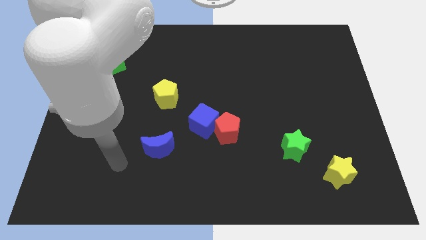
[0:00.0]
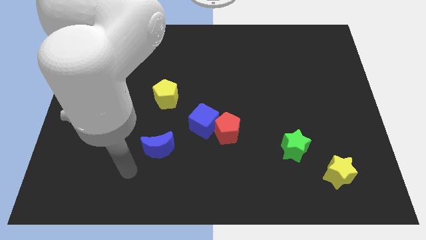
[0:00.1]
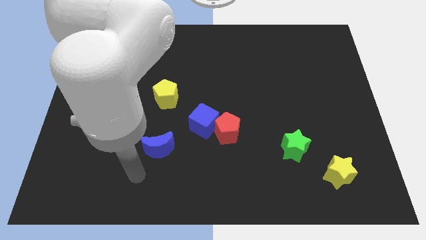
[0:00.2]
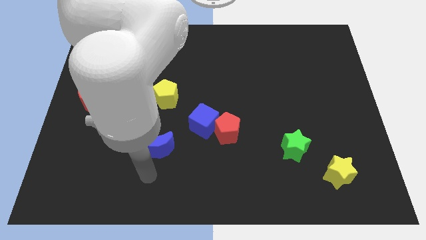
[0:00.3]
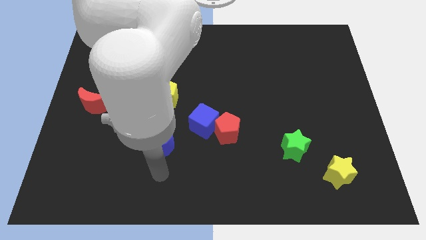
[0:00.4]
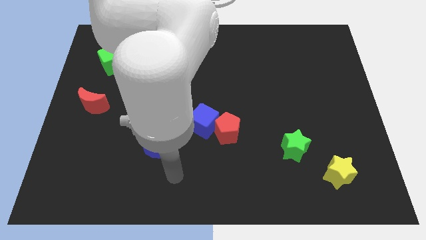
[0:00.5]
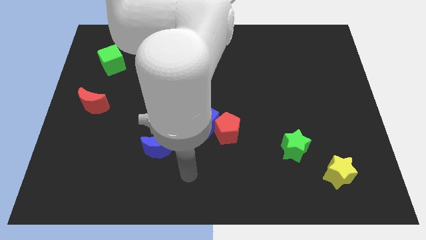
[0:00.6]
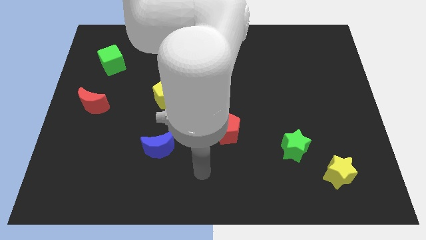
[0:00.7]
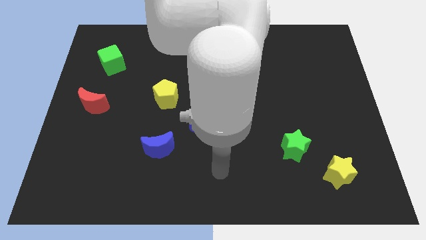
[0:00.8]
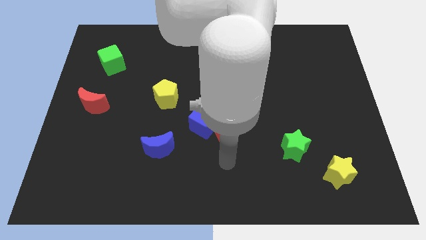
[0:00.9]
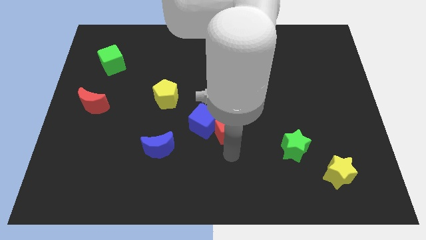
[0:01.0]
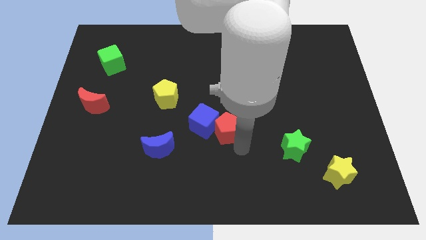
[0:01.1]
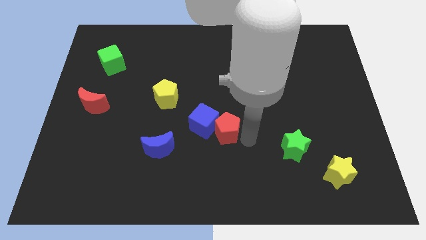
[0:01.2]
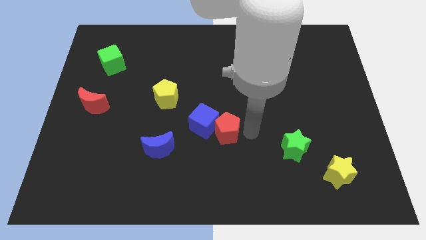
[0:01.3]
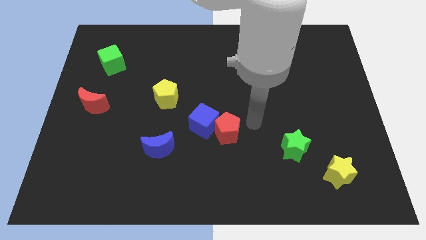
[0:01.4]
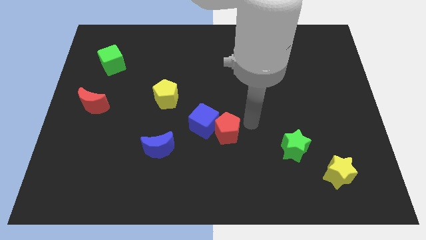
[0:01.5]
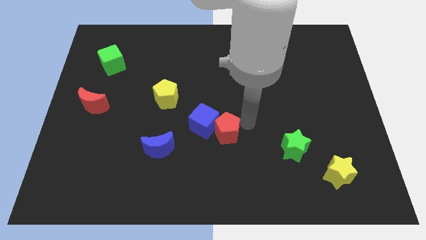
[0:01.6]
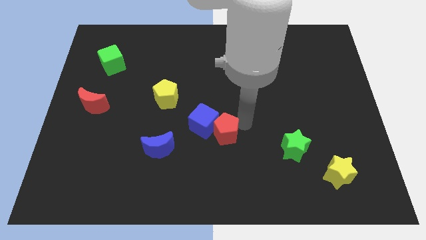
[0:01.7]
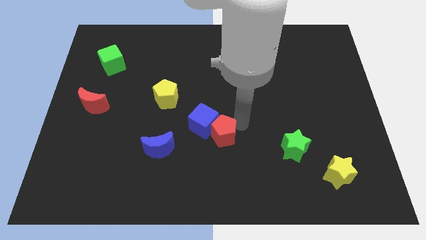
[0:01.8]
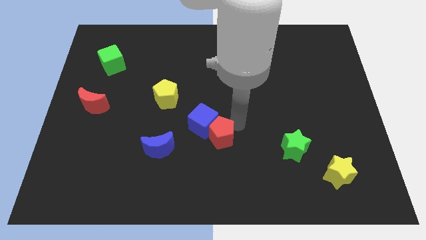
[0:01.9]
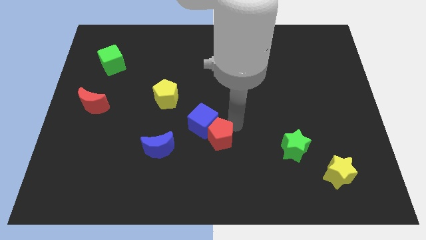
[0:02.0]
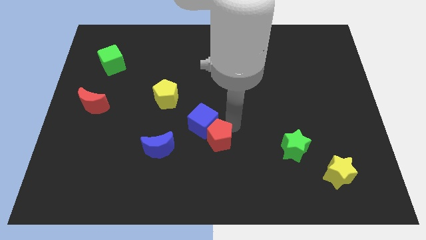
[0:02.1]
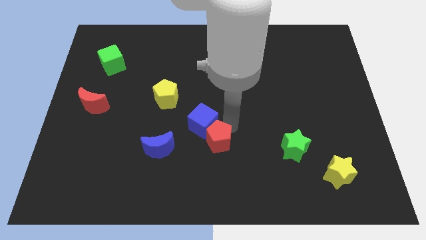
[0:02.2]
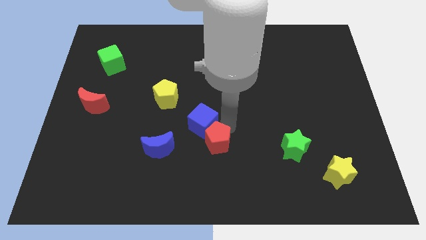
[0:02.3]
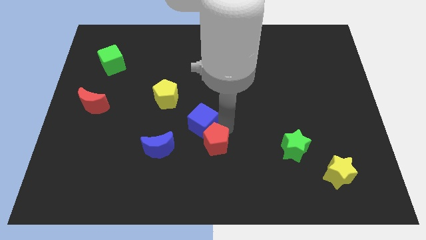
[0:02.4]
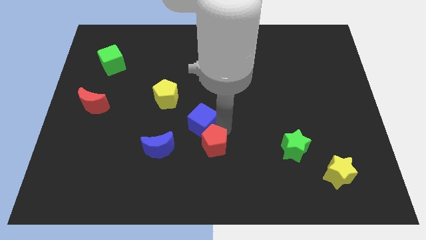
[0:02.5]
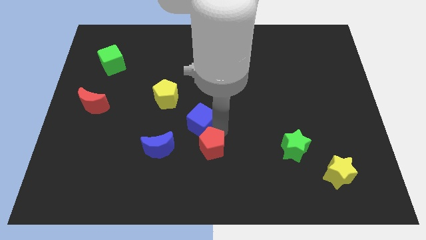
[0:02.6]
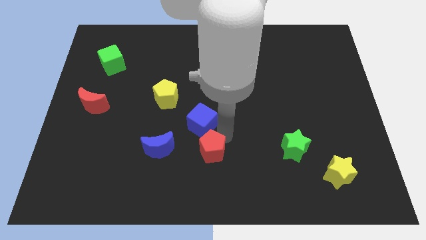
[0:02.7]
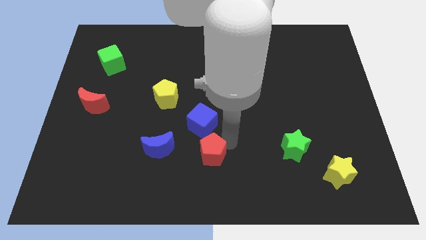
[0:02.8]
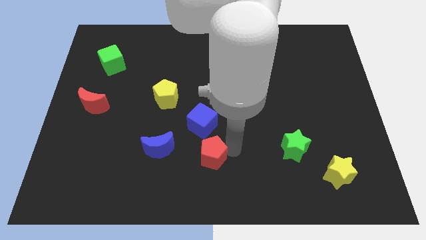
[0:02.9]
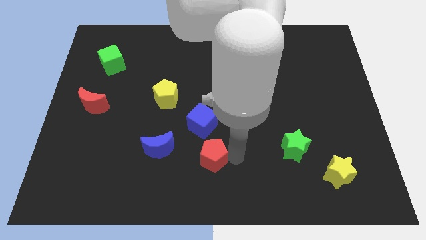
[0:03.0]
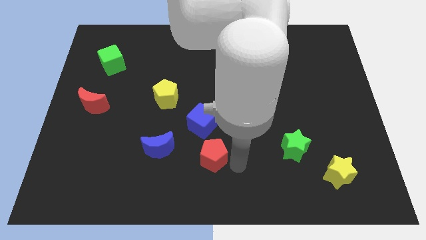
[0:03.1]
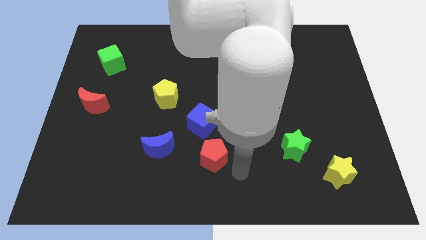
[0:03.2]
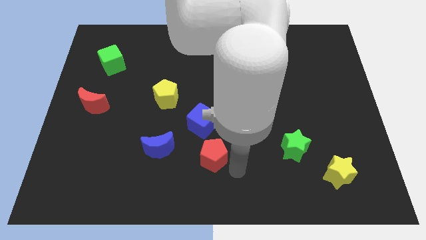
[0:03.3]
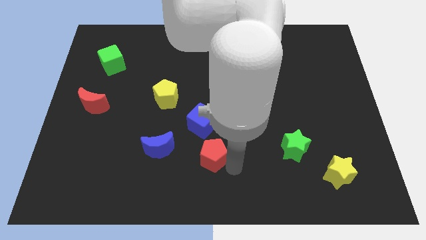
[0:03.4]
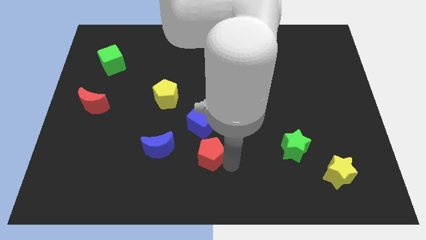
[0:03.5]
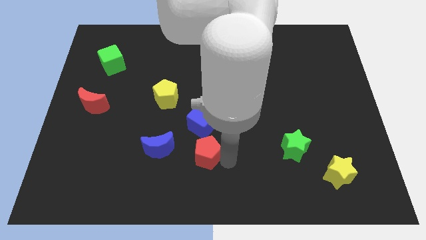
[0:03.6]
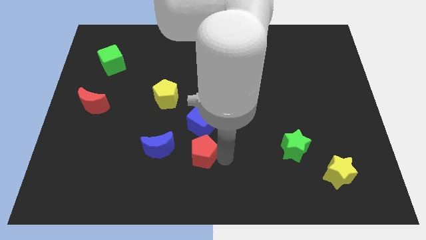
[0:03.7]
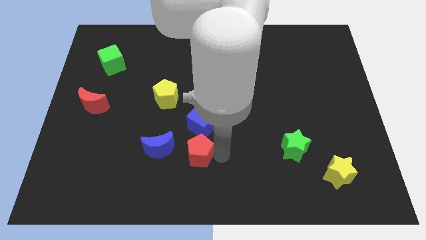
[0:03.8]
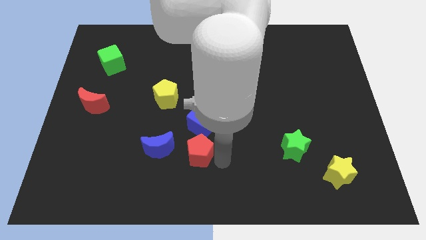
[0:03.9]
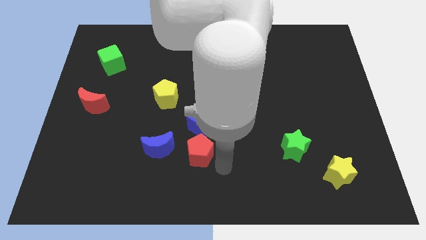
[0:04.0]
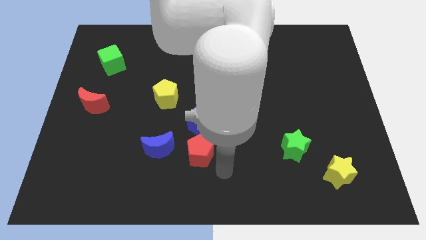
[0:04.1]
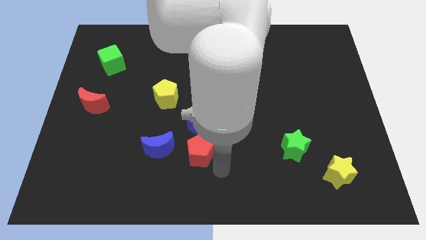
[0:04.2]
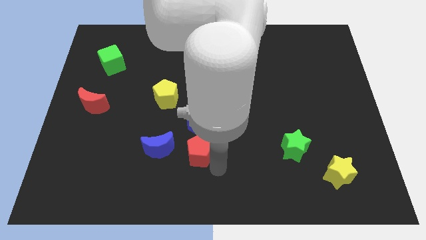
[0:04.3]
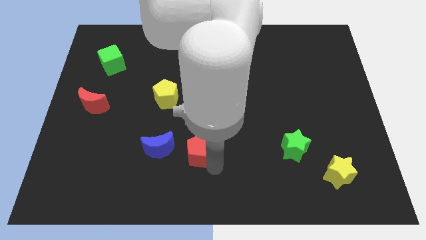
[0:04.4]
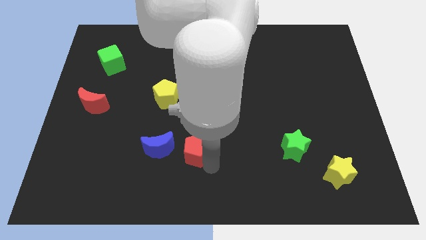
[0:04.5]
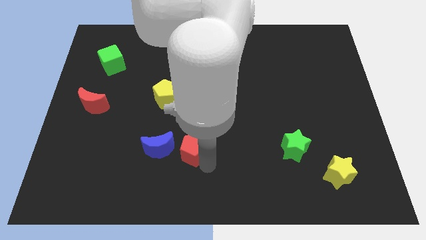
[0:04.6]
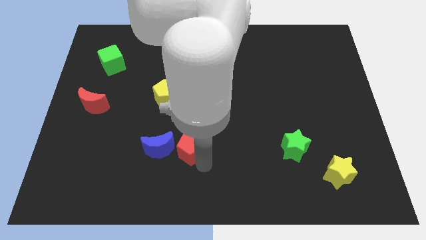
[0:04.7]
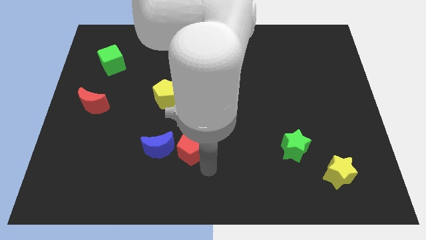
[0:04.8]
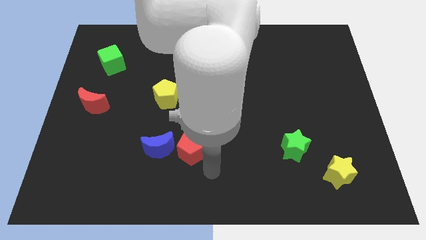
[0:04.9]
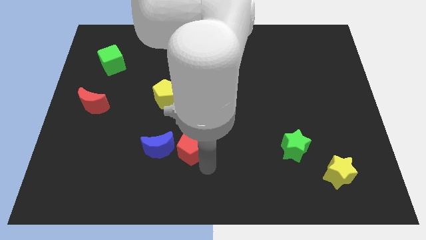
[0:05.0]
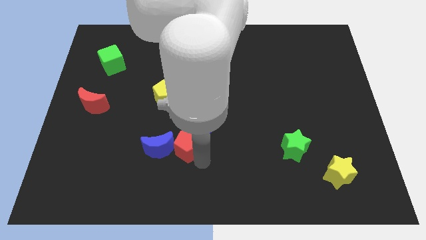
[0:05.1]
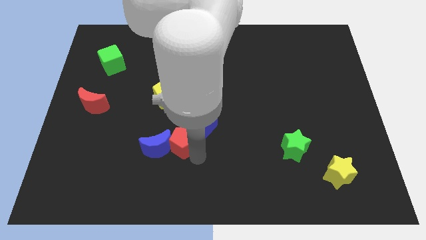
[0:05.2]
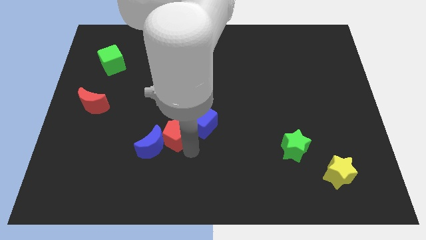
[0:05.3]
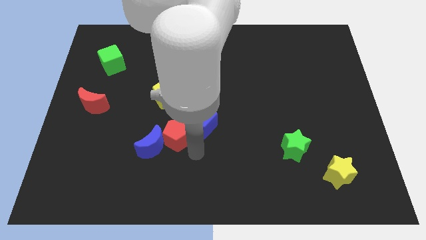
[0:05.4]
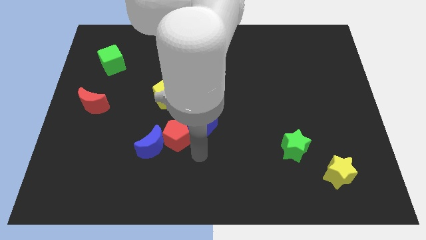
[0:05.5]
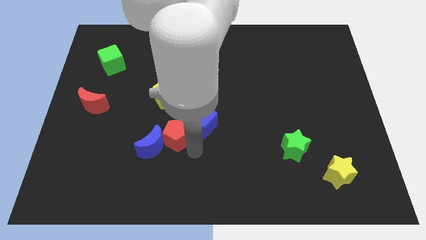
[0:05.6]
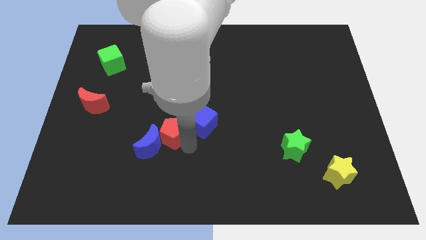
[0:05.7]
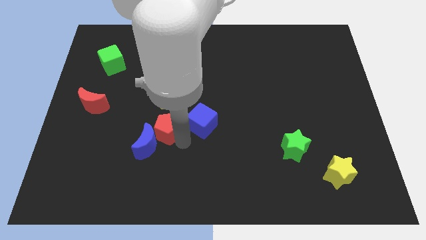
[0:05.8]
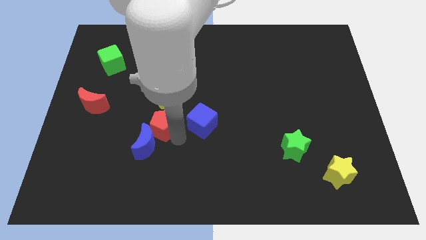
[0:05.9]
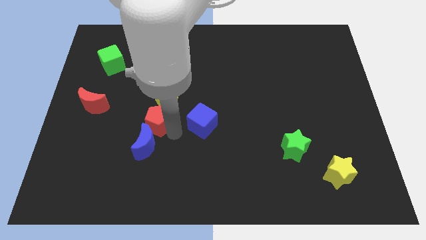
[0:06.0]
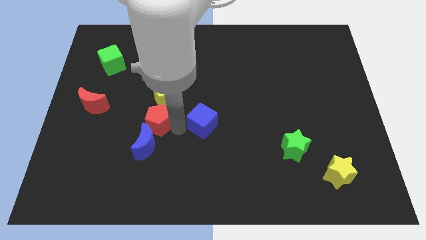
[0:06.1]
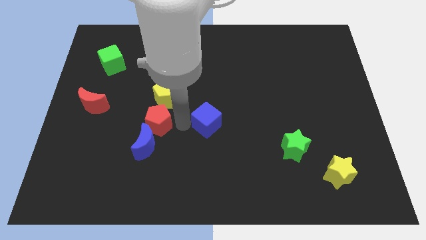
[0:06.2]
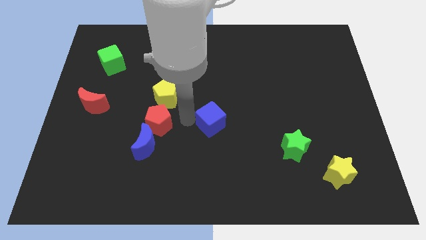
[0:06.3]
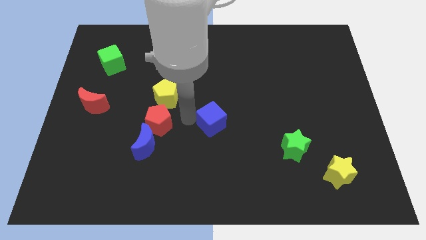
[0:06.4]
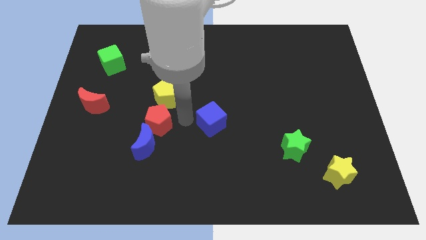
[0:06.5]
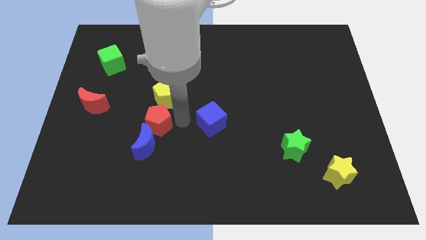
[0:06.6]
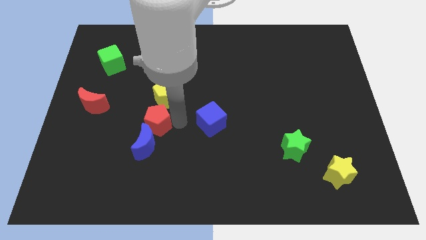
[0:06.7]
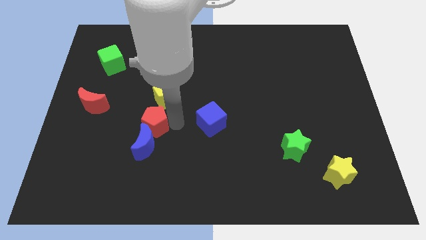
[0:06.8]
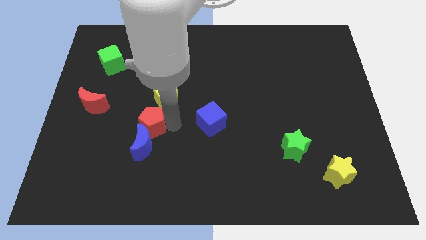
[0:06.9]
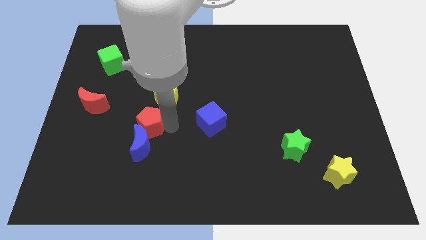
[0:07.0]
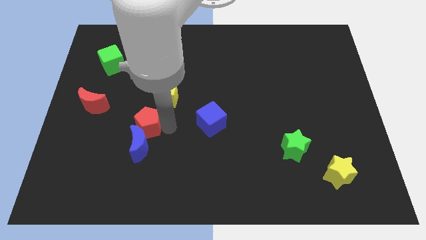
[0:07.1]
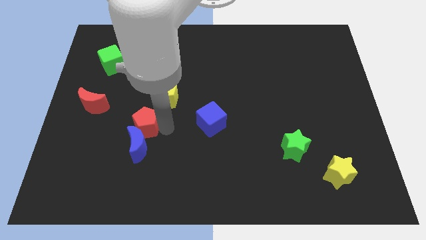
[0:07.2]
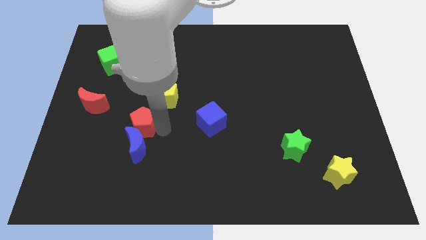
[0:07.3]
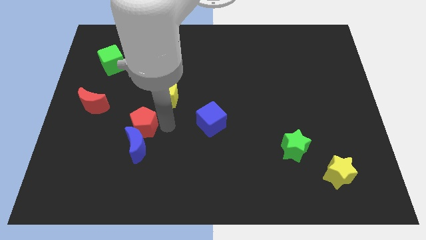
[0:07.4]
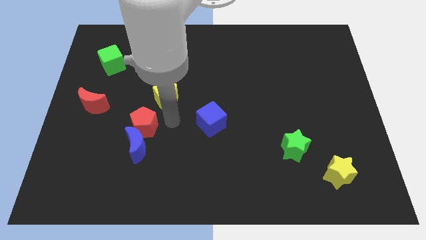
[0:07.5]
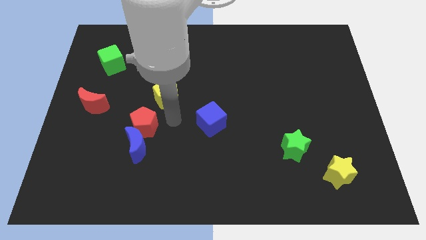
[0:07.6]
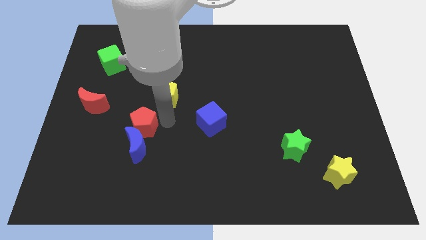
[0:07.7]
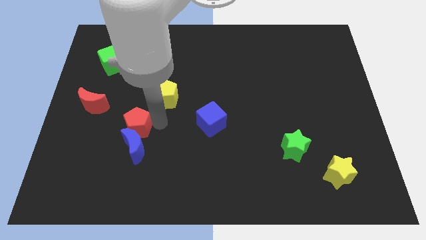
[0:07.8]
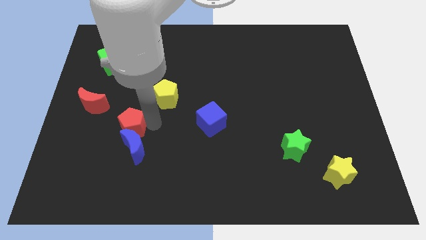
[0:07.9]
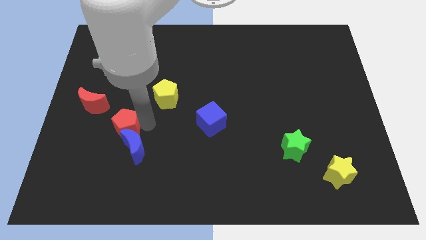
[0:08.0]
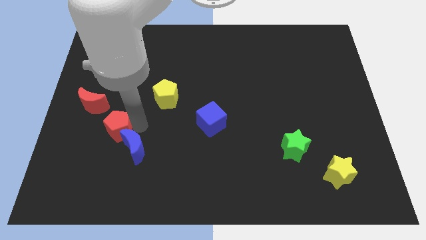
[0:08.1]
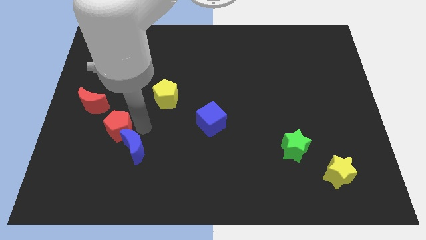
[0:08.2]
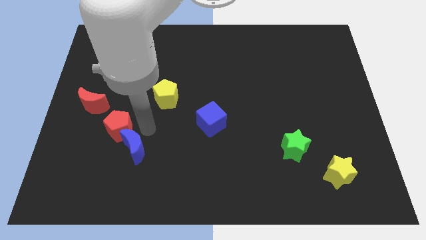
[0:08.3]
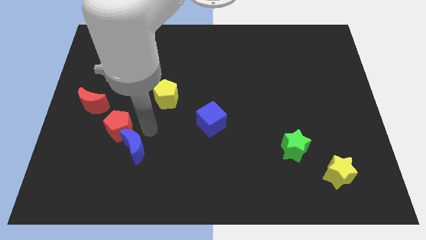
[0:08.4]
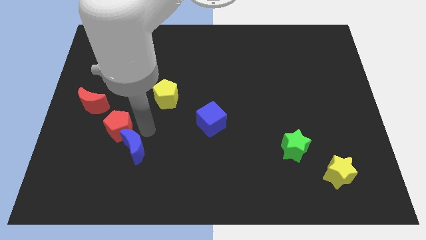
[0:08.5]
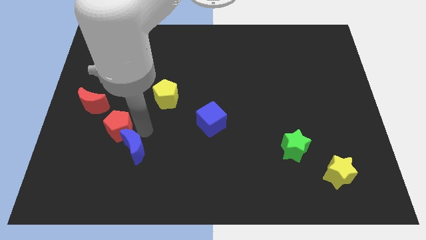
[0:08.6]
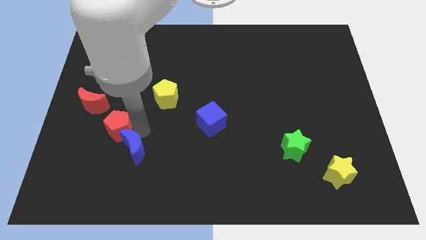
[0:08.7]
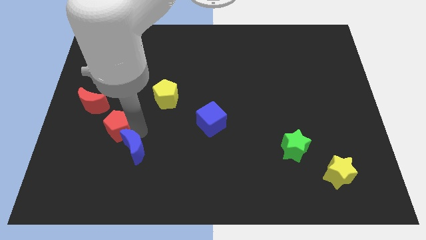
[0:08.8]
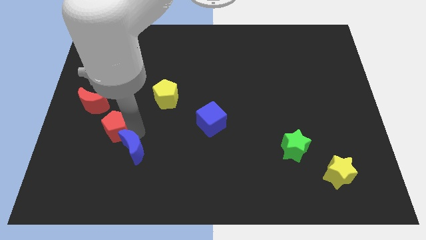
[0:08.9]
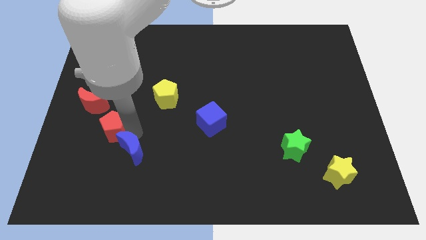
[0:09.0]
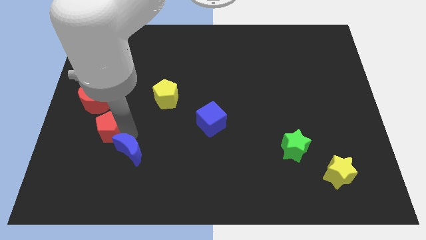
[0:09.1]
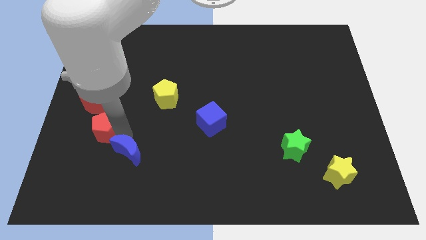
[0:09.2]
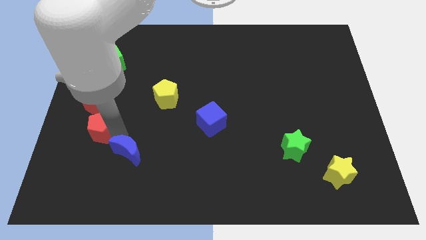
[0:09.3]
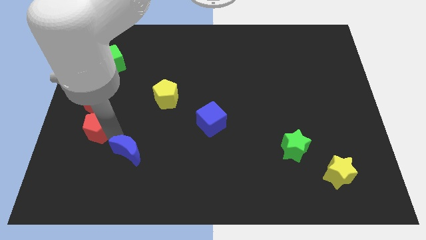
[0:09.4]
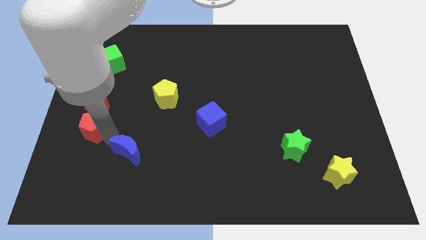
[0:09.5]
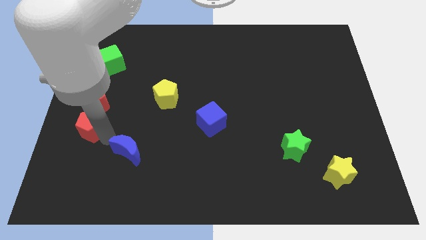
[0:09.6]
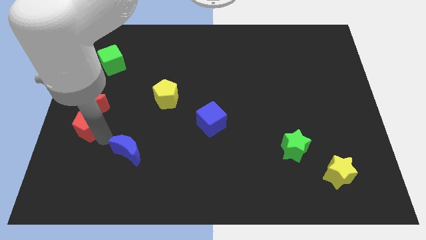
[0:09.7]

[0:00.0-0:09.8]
push the red pentagon to the left side
